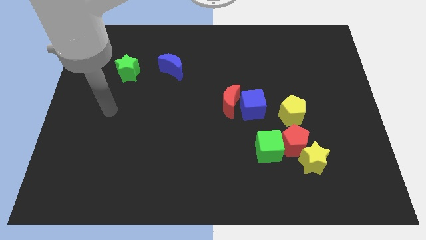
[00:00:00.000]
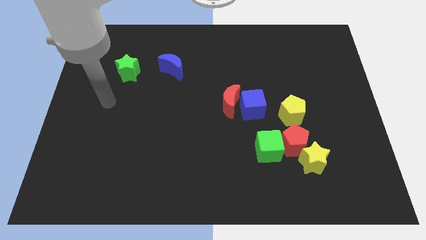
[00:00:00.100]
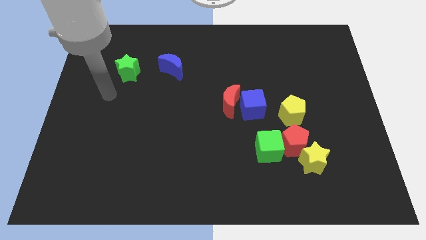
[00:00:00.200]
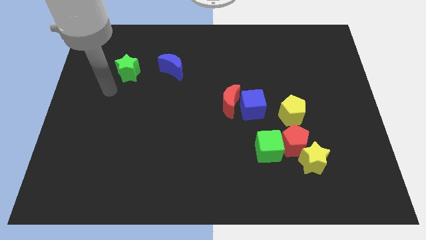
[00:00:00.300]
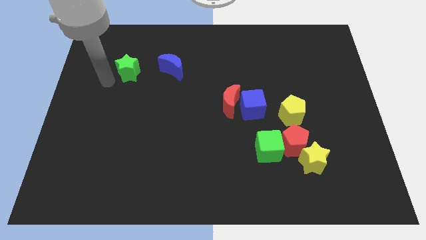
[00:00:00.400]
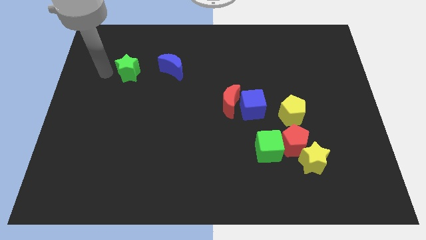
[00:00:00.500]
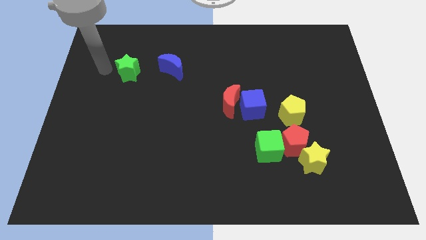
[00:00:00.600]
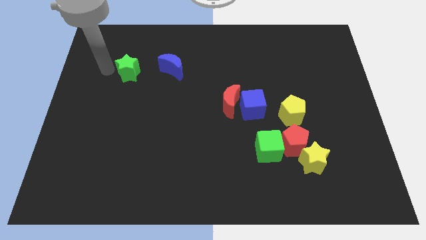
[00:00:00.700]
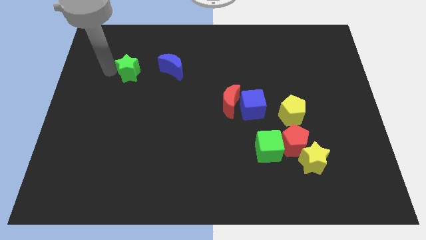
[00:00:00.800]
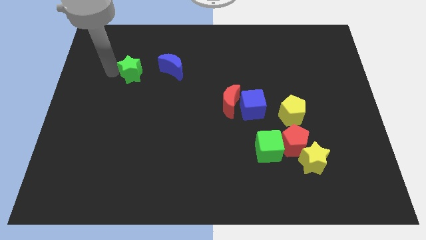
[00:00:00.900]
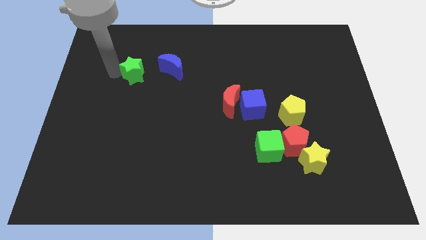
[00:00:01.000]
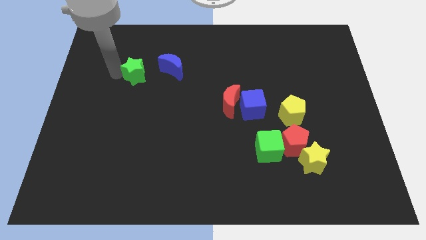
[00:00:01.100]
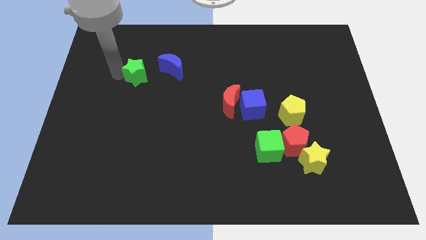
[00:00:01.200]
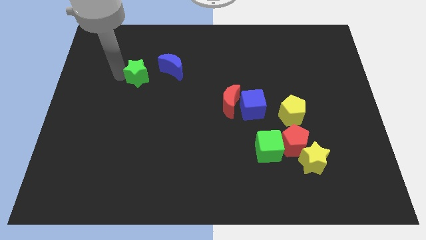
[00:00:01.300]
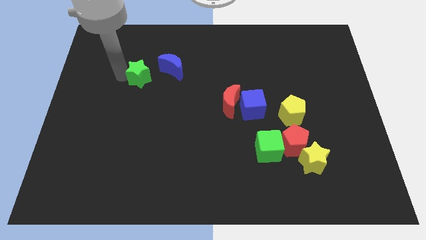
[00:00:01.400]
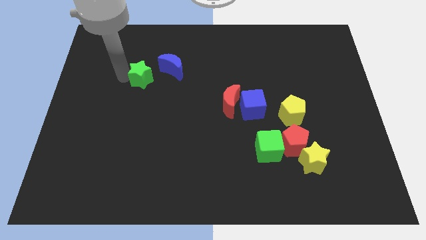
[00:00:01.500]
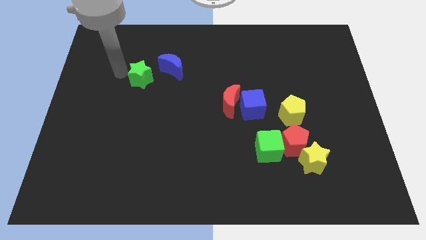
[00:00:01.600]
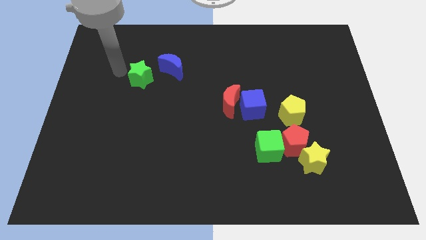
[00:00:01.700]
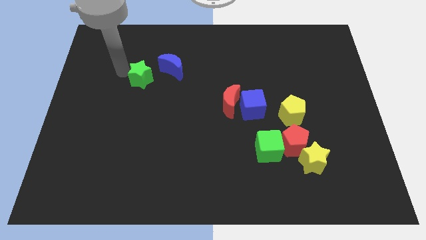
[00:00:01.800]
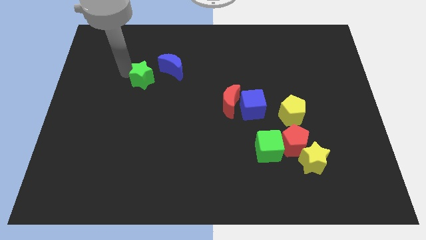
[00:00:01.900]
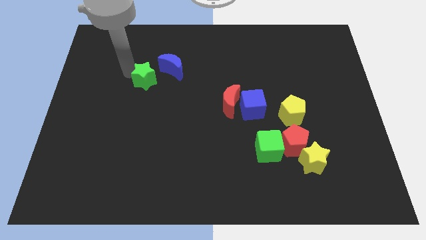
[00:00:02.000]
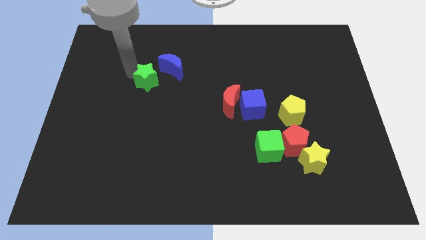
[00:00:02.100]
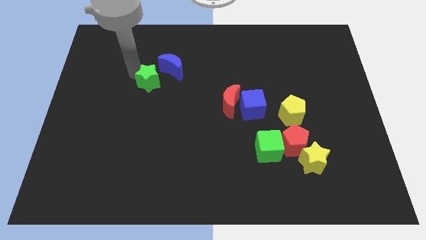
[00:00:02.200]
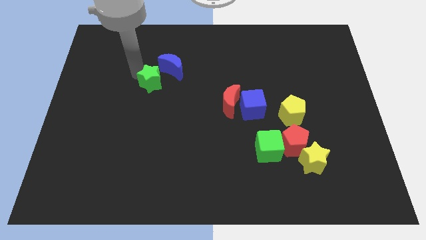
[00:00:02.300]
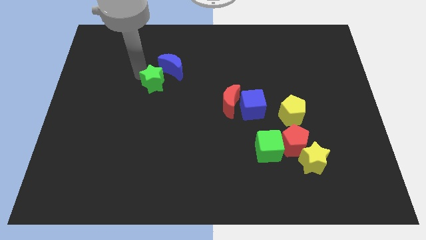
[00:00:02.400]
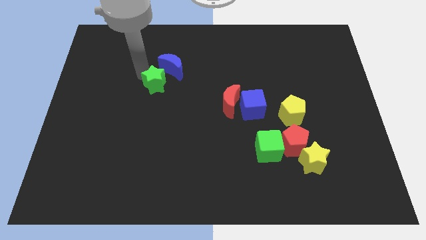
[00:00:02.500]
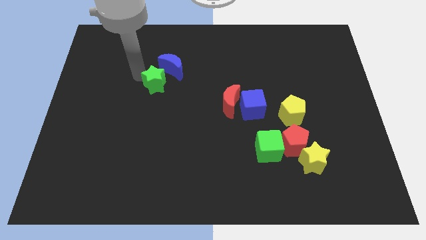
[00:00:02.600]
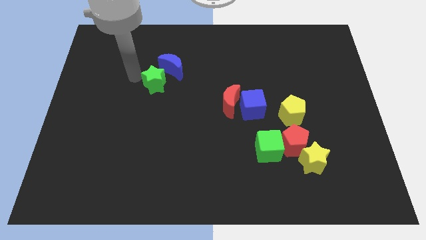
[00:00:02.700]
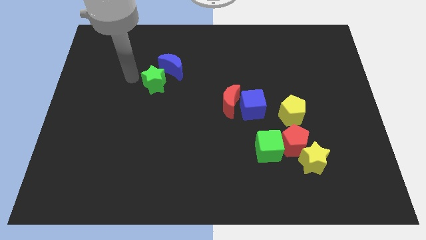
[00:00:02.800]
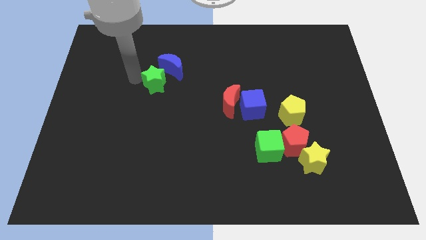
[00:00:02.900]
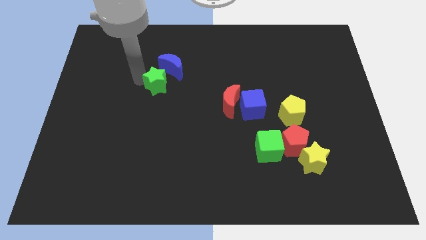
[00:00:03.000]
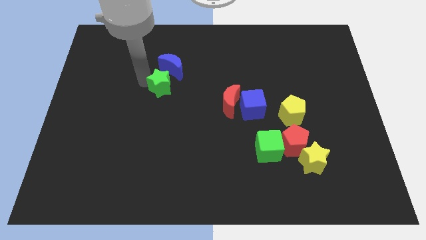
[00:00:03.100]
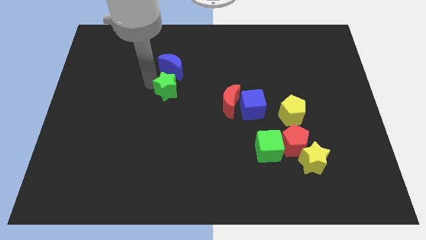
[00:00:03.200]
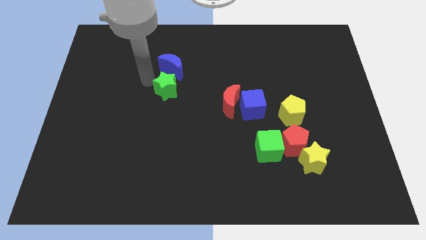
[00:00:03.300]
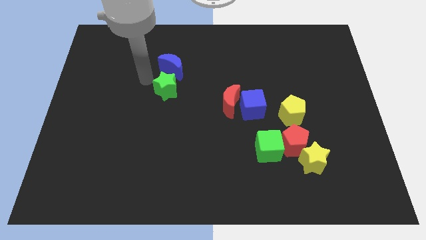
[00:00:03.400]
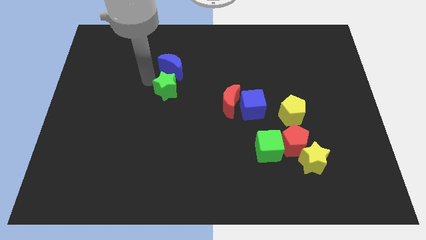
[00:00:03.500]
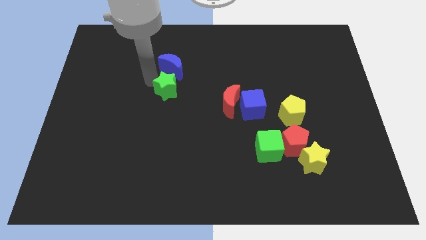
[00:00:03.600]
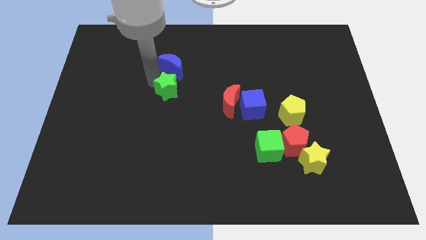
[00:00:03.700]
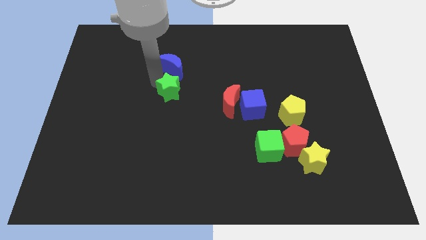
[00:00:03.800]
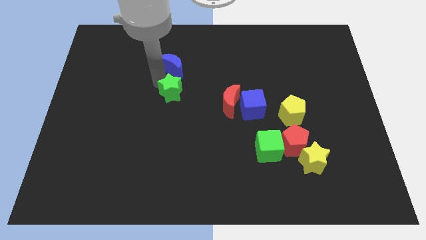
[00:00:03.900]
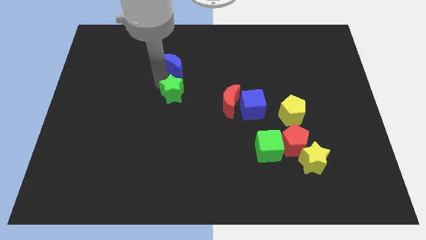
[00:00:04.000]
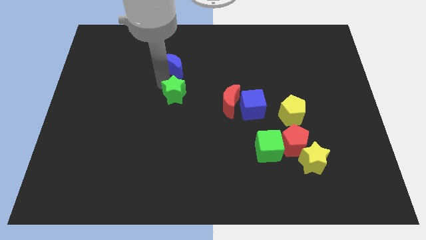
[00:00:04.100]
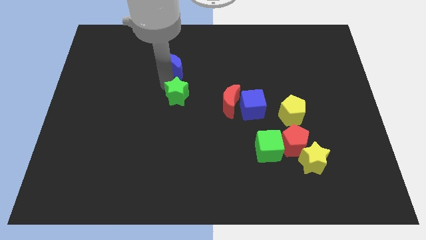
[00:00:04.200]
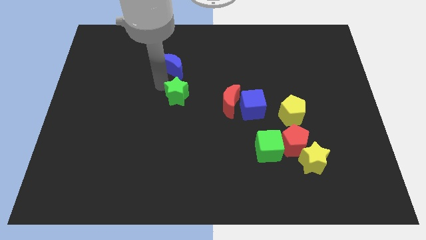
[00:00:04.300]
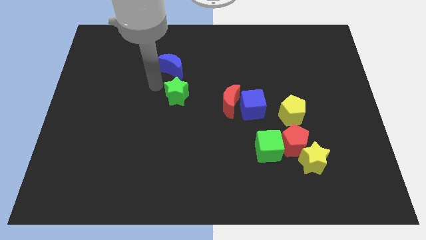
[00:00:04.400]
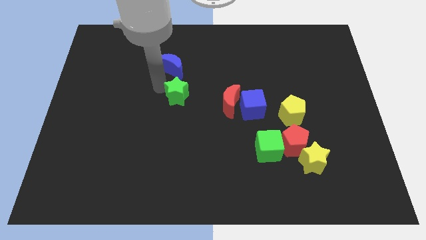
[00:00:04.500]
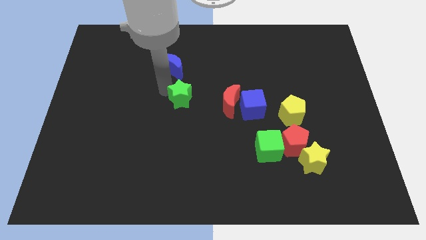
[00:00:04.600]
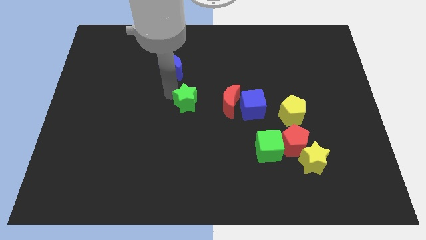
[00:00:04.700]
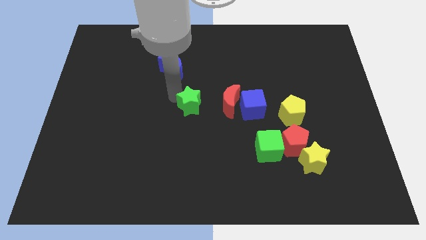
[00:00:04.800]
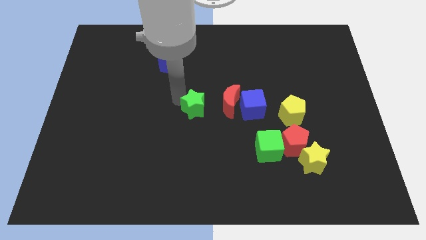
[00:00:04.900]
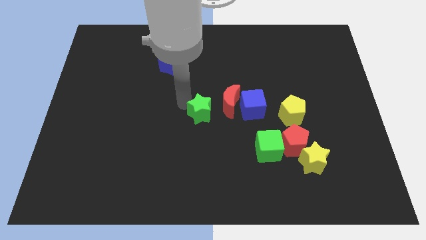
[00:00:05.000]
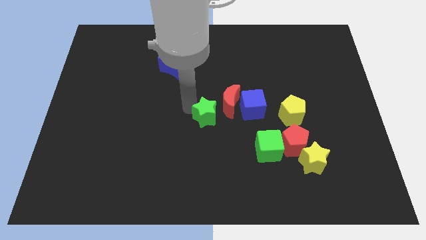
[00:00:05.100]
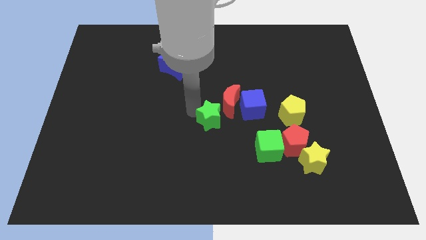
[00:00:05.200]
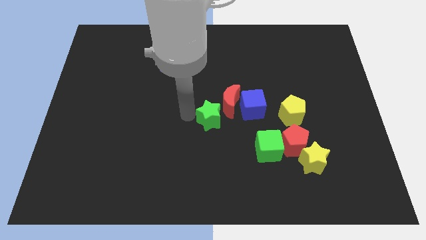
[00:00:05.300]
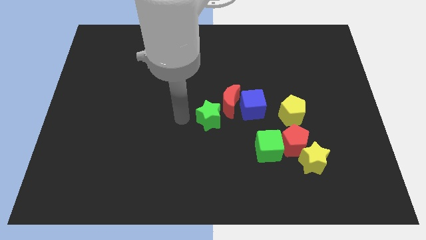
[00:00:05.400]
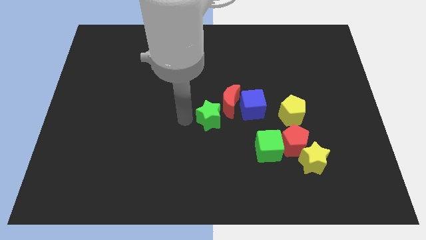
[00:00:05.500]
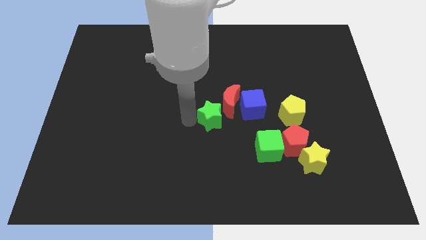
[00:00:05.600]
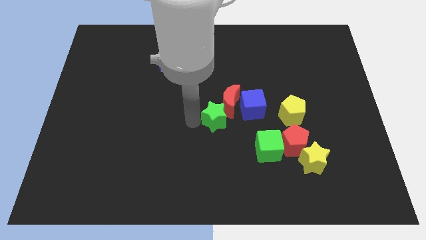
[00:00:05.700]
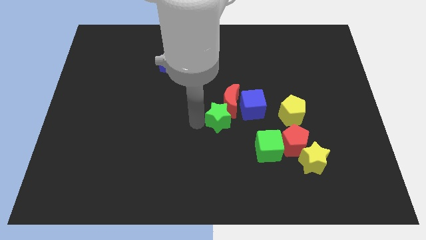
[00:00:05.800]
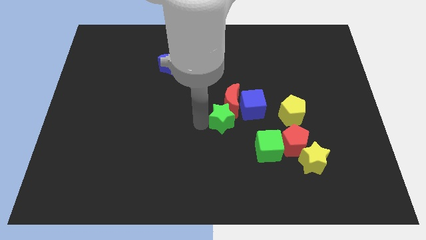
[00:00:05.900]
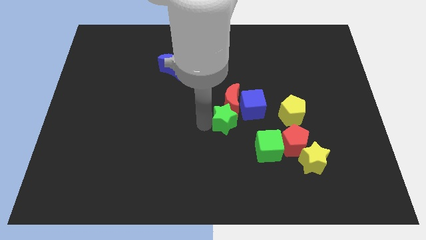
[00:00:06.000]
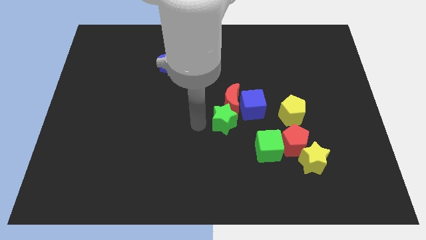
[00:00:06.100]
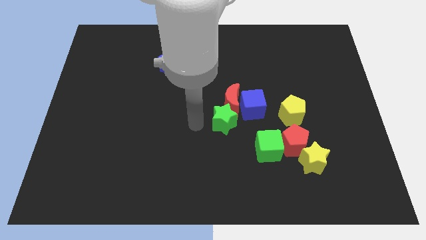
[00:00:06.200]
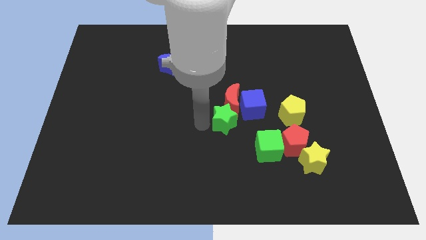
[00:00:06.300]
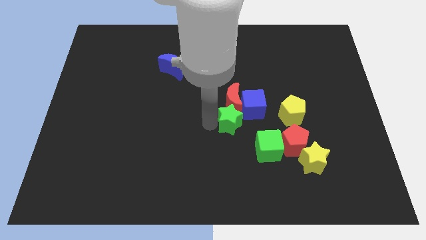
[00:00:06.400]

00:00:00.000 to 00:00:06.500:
slide the green star diagonally down and to the right of the red moon
